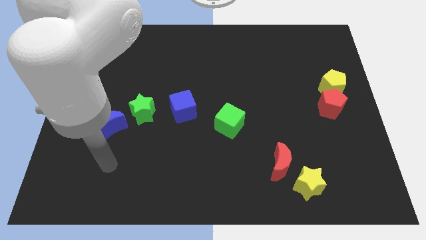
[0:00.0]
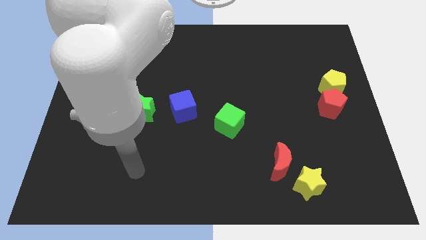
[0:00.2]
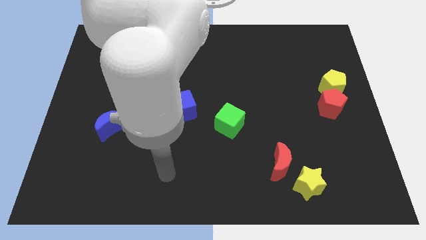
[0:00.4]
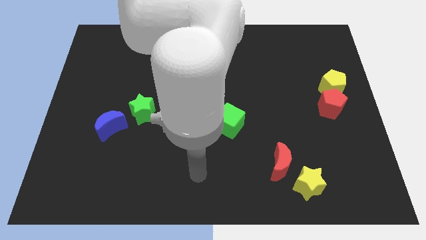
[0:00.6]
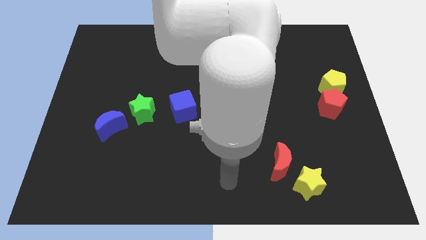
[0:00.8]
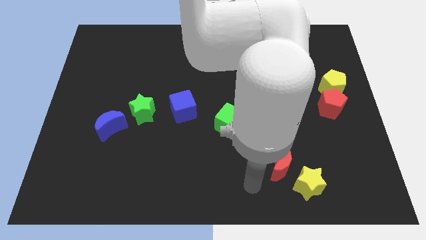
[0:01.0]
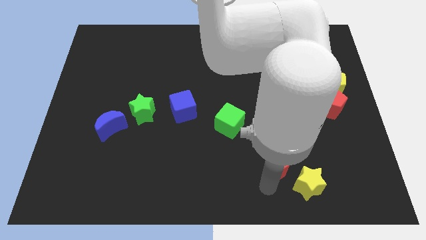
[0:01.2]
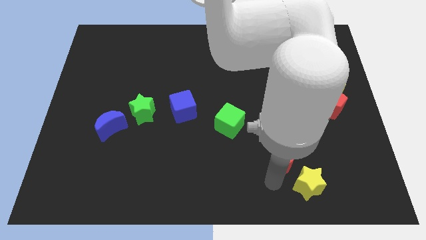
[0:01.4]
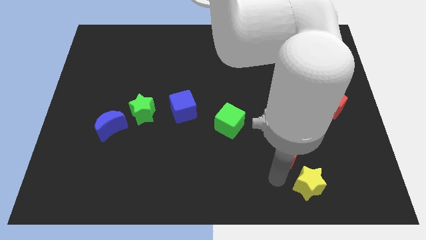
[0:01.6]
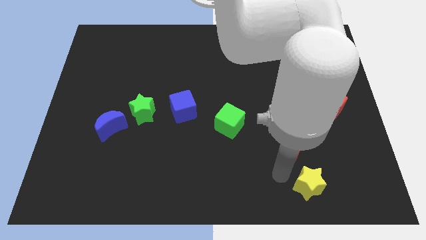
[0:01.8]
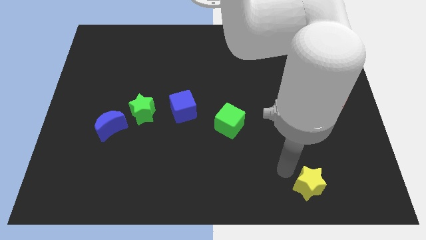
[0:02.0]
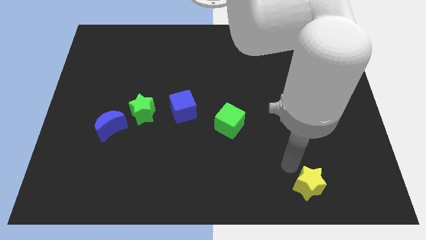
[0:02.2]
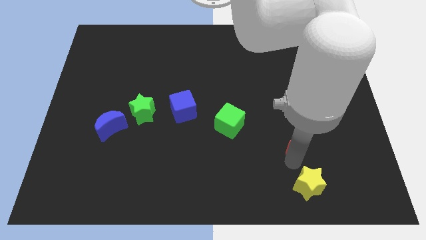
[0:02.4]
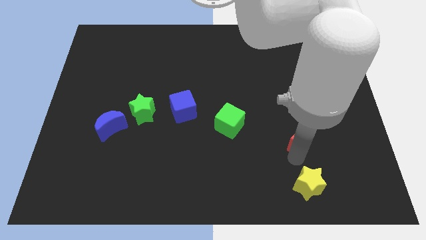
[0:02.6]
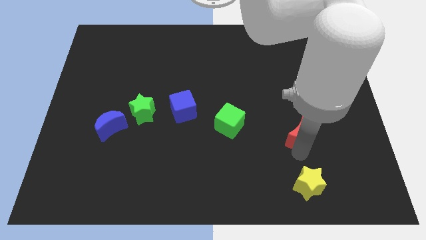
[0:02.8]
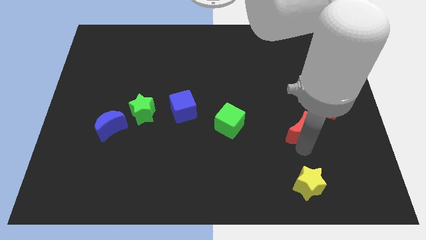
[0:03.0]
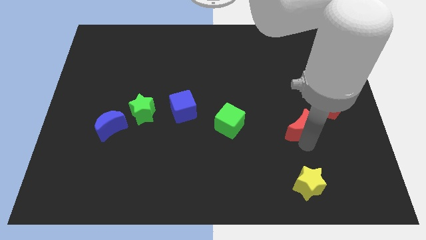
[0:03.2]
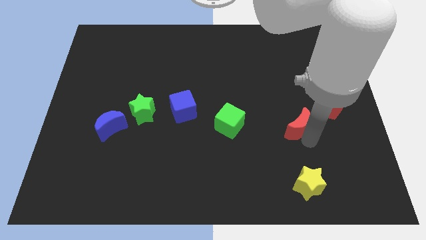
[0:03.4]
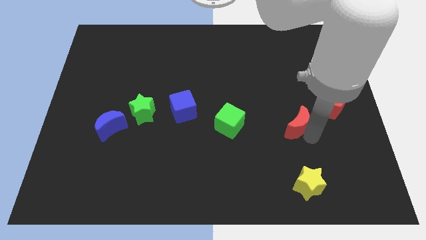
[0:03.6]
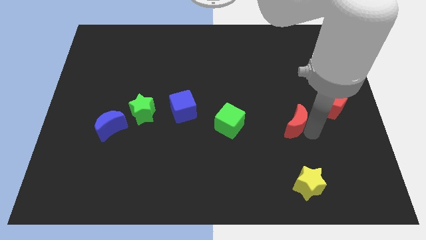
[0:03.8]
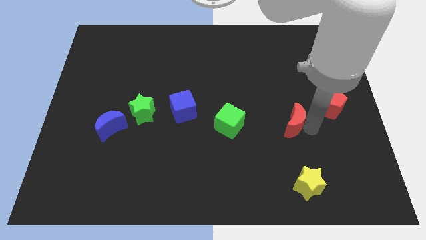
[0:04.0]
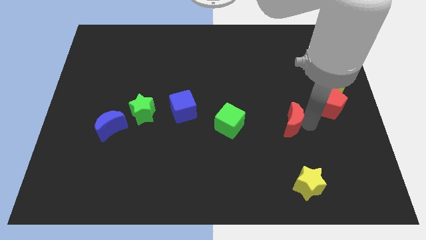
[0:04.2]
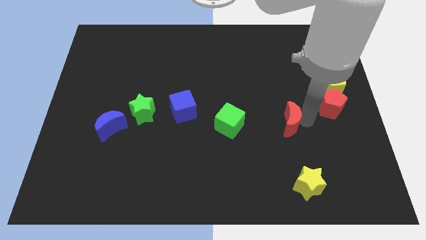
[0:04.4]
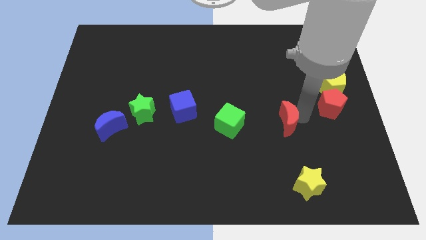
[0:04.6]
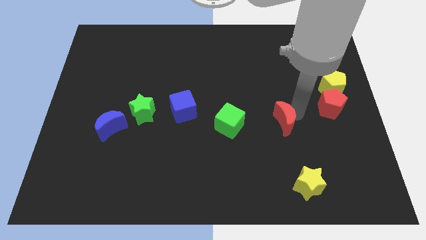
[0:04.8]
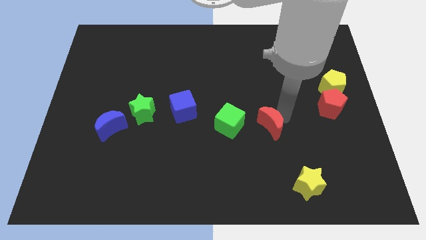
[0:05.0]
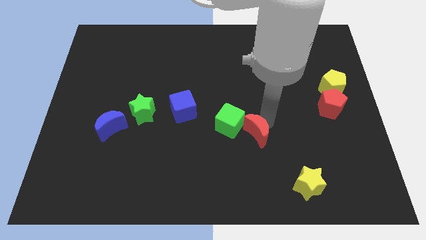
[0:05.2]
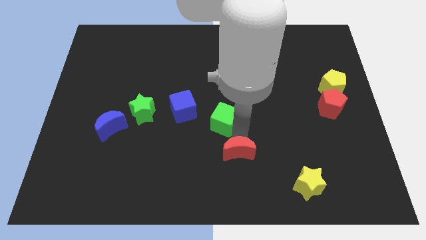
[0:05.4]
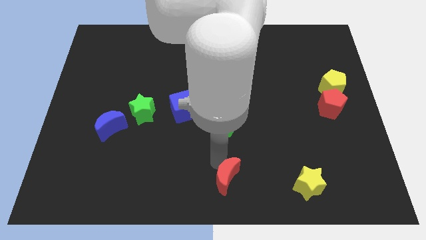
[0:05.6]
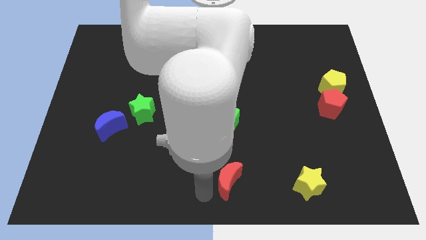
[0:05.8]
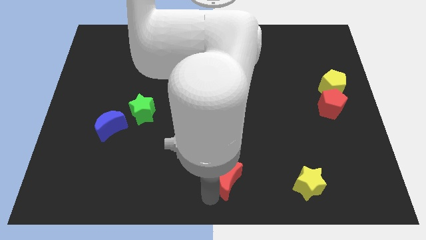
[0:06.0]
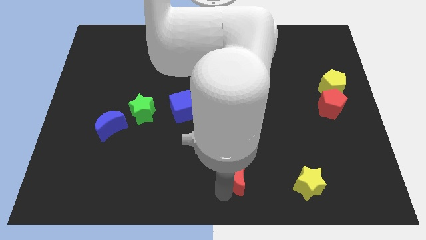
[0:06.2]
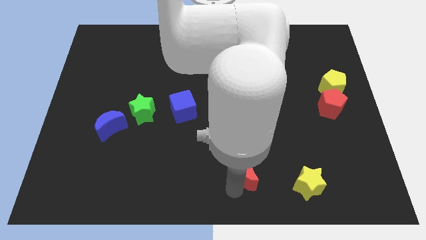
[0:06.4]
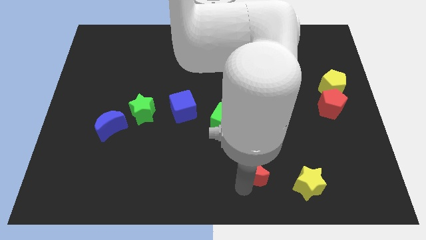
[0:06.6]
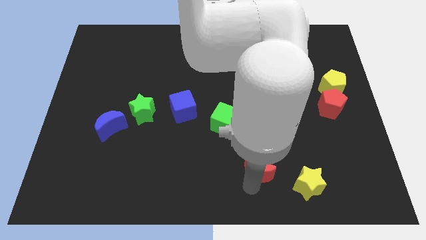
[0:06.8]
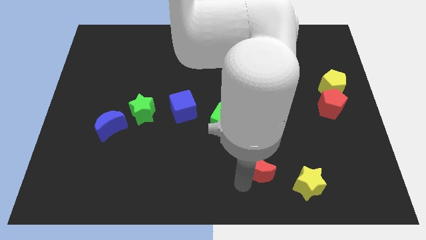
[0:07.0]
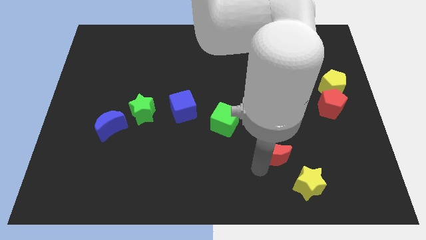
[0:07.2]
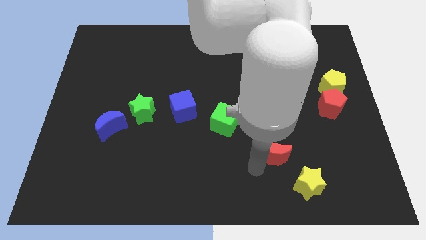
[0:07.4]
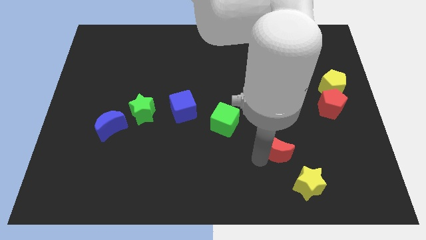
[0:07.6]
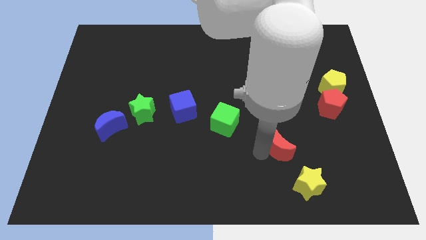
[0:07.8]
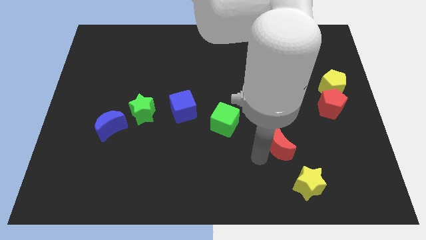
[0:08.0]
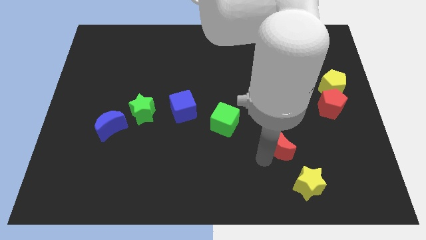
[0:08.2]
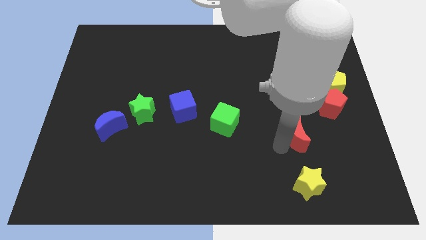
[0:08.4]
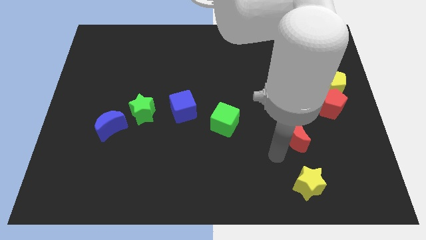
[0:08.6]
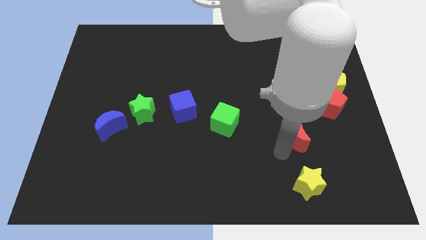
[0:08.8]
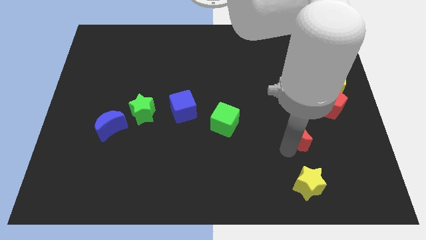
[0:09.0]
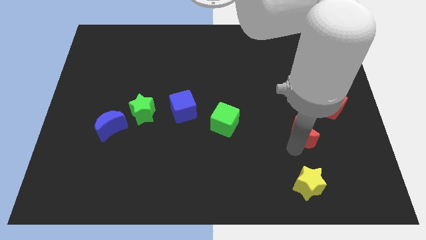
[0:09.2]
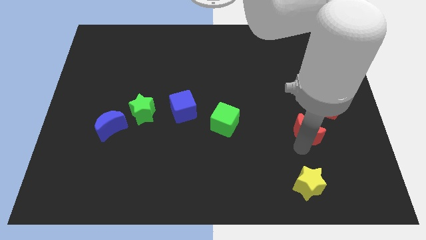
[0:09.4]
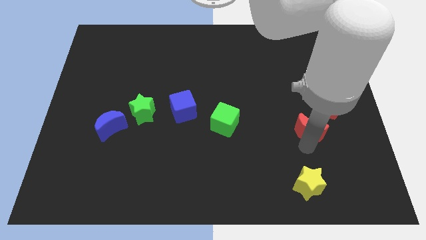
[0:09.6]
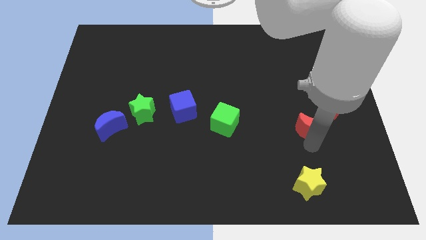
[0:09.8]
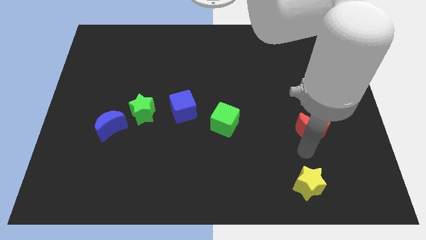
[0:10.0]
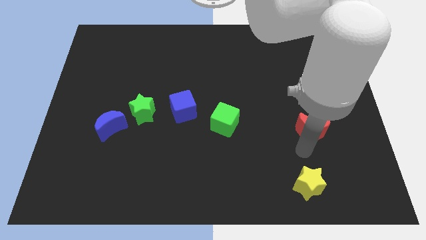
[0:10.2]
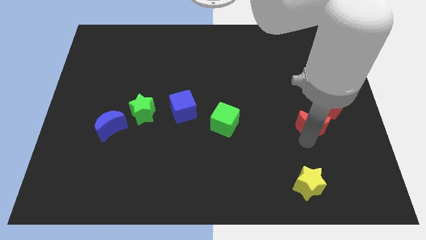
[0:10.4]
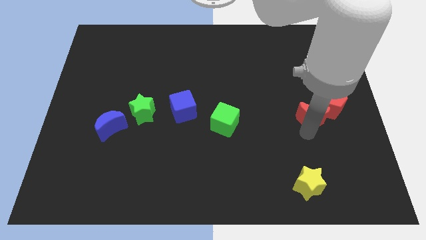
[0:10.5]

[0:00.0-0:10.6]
push the red moon to the red pentagon

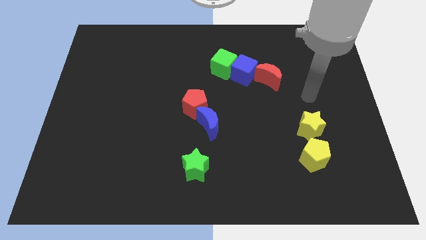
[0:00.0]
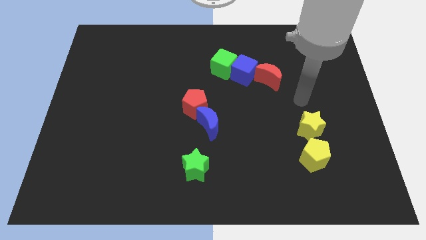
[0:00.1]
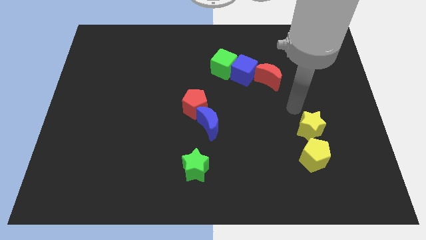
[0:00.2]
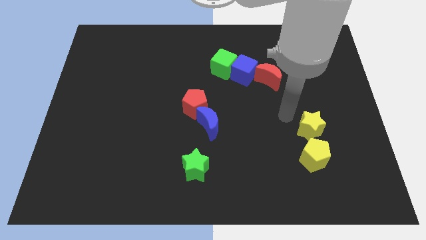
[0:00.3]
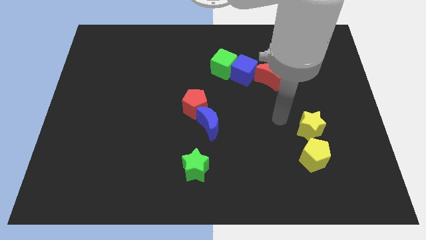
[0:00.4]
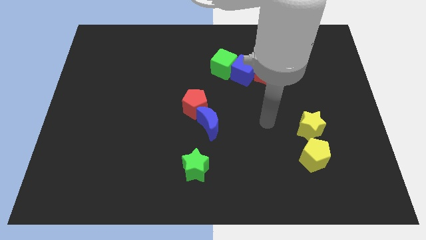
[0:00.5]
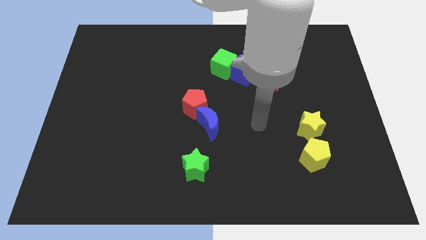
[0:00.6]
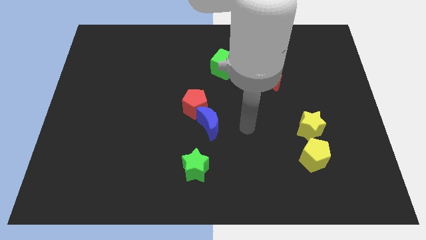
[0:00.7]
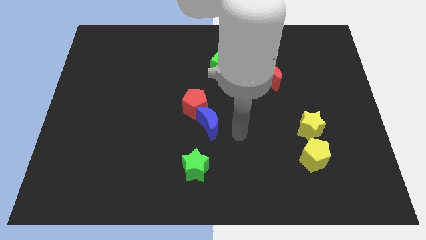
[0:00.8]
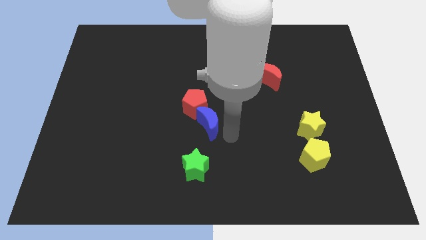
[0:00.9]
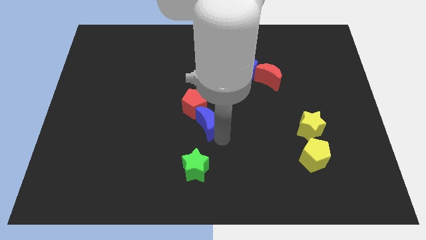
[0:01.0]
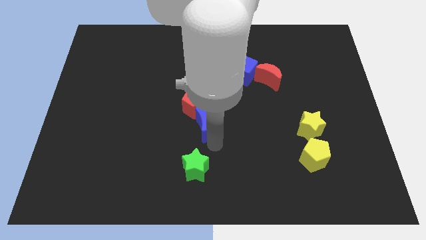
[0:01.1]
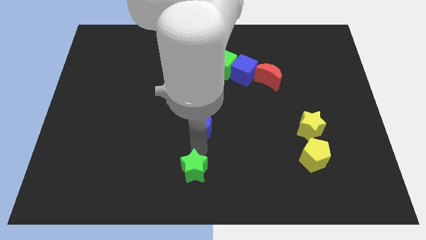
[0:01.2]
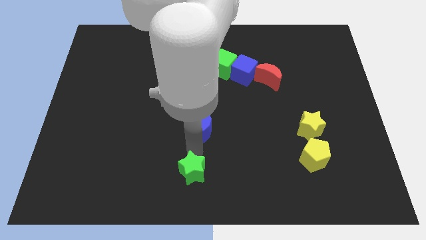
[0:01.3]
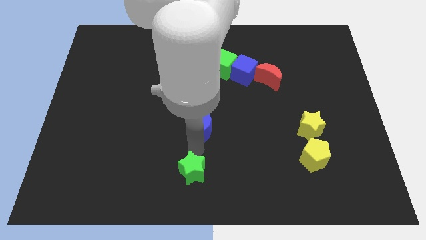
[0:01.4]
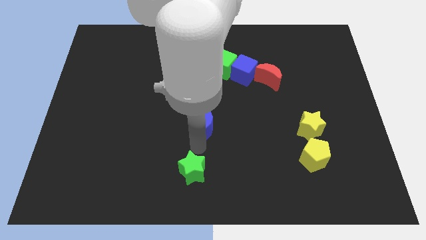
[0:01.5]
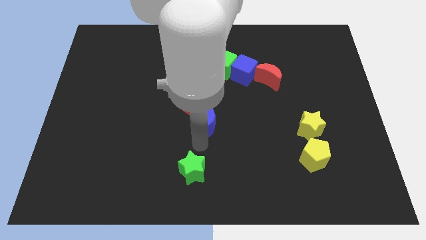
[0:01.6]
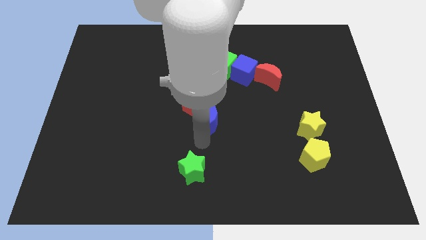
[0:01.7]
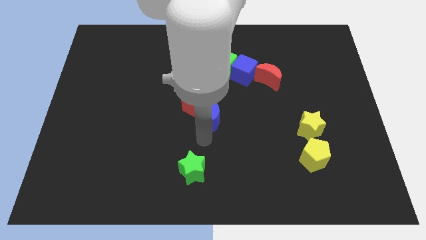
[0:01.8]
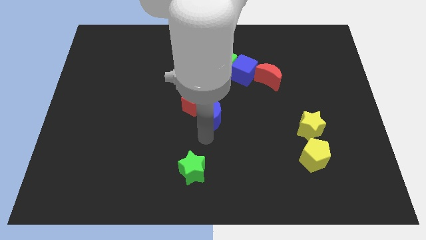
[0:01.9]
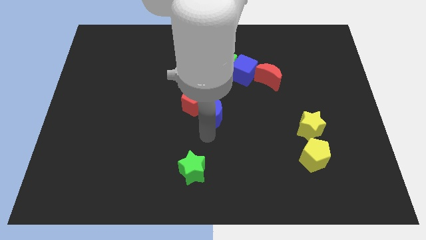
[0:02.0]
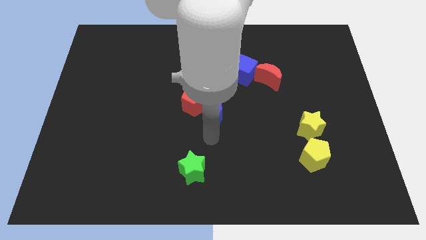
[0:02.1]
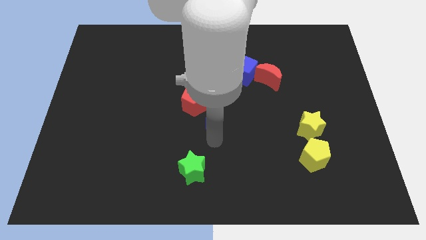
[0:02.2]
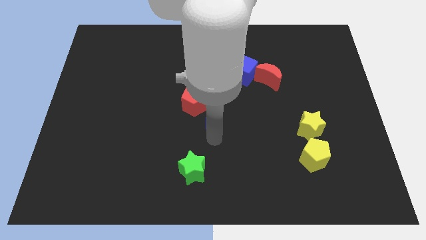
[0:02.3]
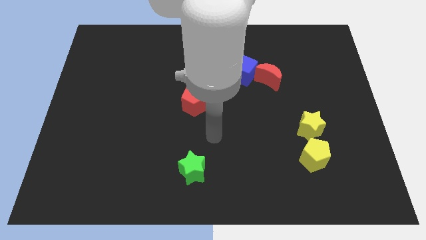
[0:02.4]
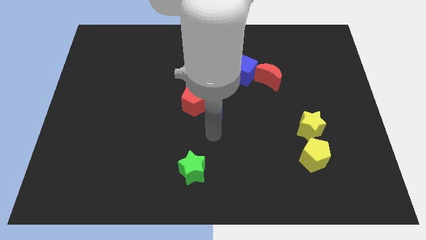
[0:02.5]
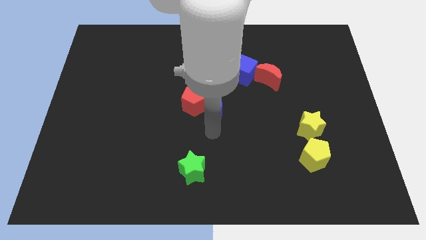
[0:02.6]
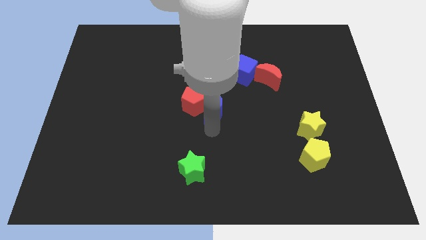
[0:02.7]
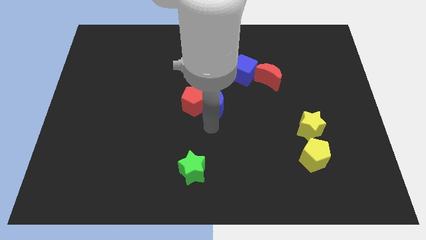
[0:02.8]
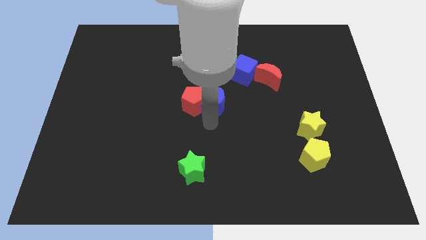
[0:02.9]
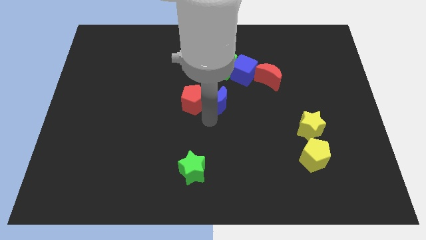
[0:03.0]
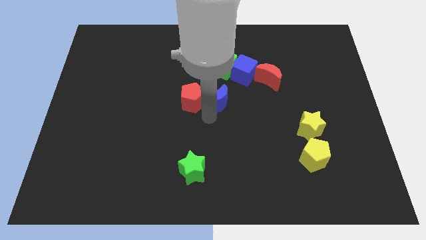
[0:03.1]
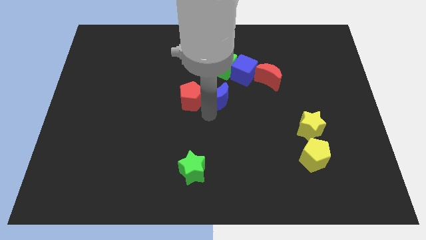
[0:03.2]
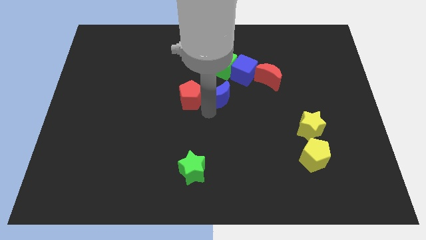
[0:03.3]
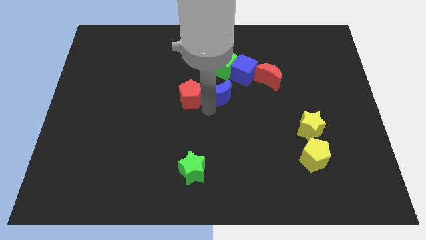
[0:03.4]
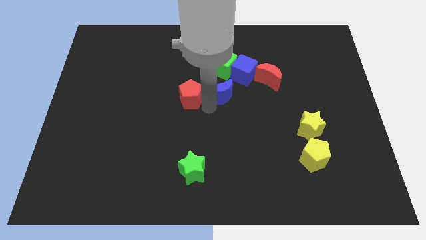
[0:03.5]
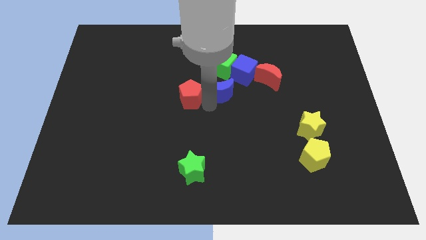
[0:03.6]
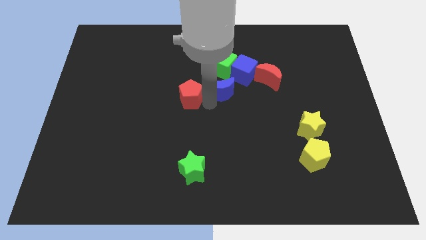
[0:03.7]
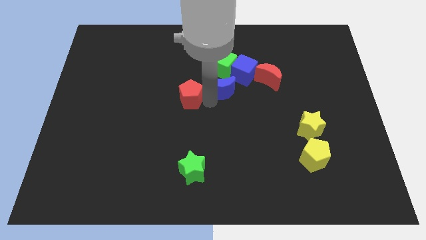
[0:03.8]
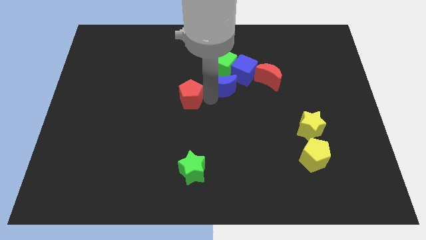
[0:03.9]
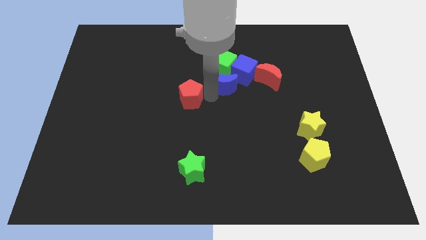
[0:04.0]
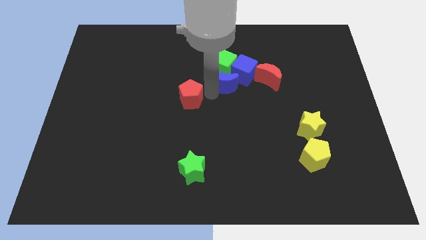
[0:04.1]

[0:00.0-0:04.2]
push the blue moon next to the green cube
